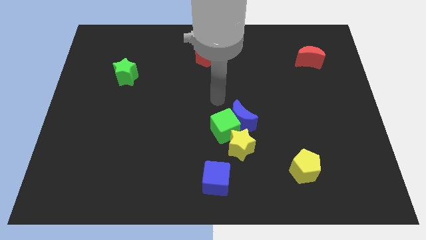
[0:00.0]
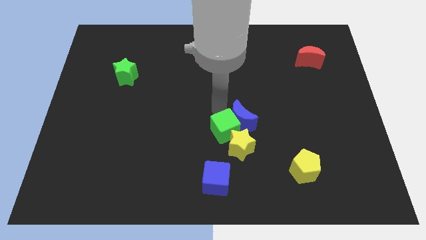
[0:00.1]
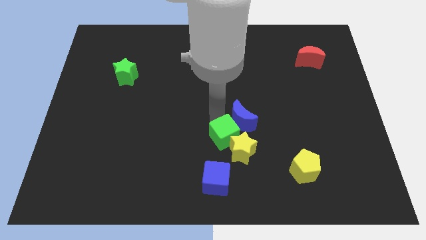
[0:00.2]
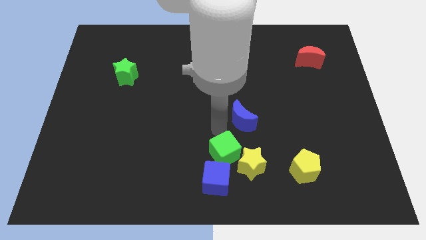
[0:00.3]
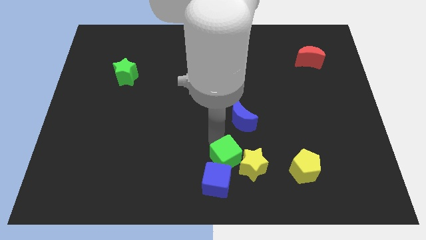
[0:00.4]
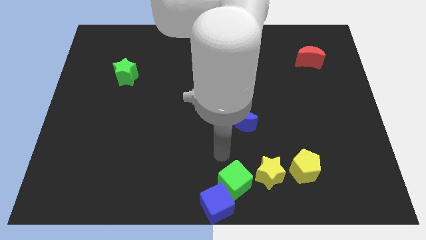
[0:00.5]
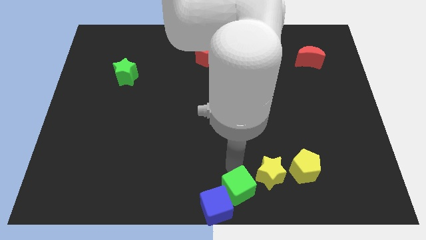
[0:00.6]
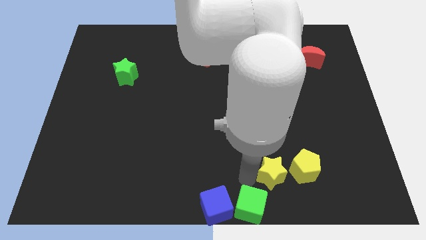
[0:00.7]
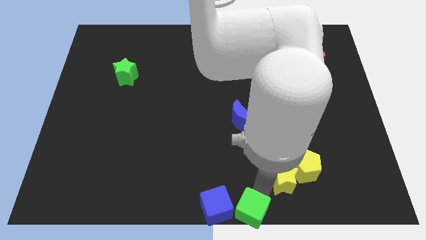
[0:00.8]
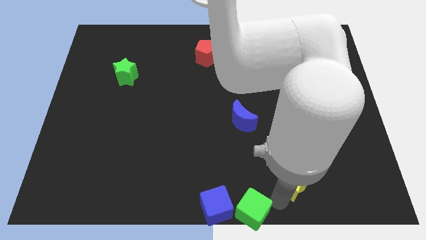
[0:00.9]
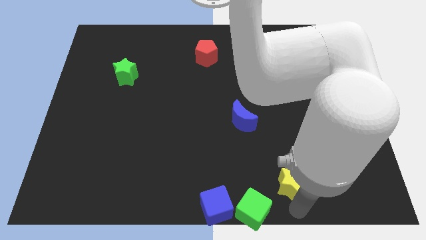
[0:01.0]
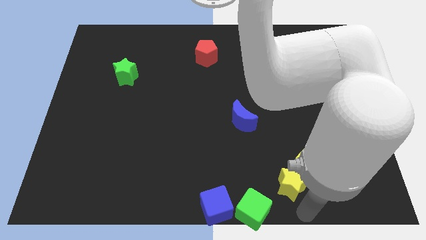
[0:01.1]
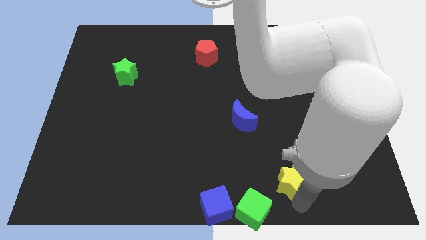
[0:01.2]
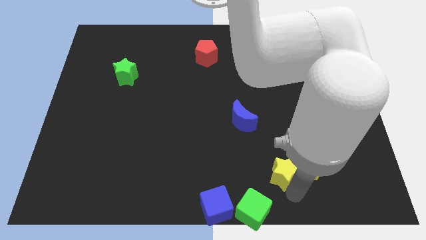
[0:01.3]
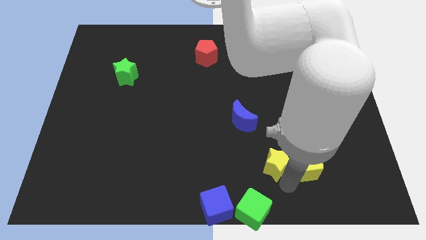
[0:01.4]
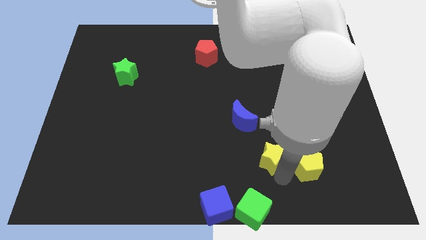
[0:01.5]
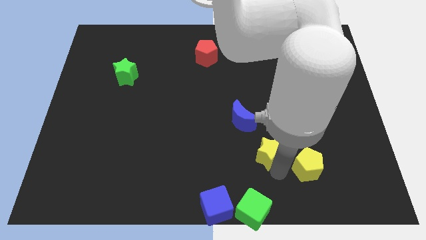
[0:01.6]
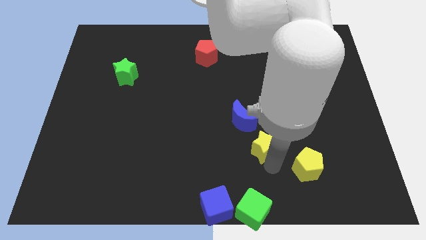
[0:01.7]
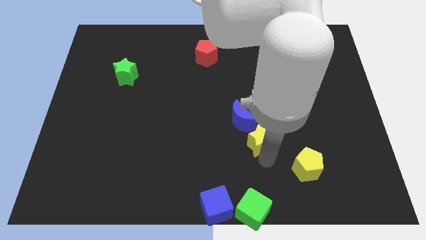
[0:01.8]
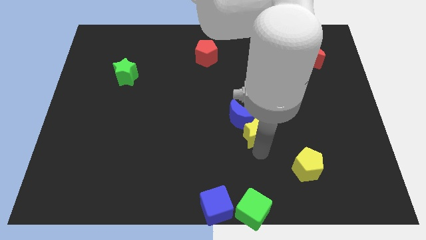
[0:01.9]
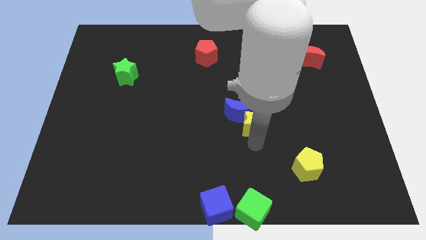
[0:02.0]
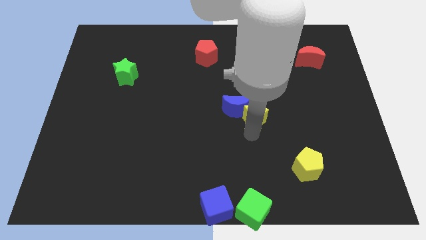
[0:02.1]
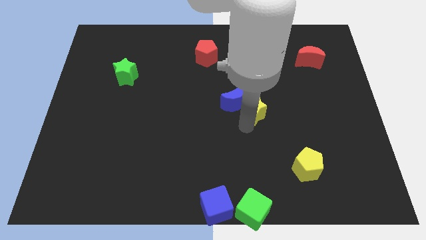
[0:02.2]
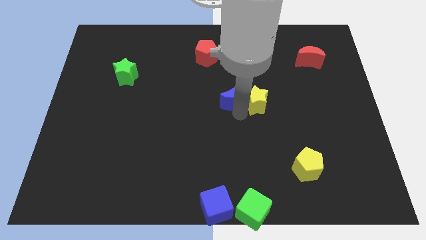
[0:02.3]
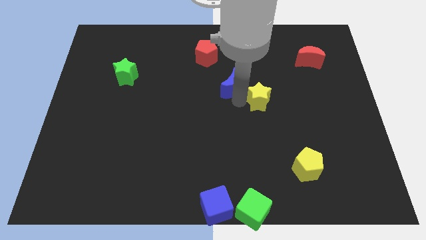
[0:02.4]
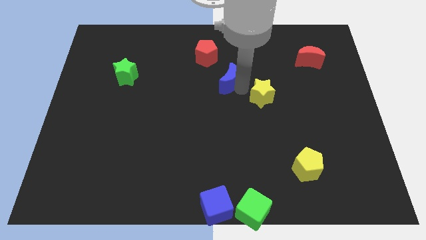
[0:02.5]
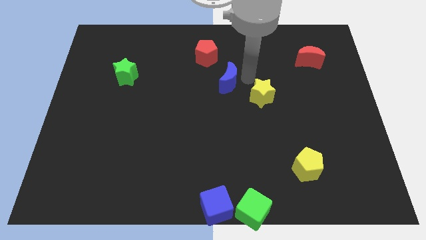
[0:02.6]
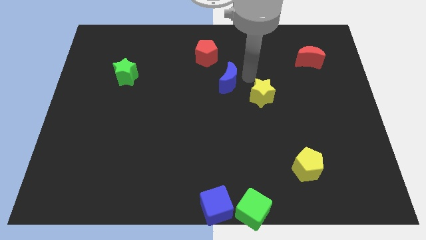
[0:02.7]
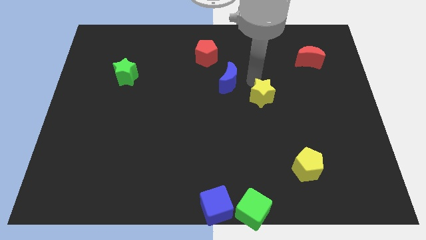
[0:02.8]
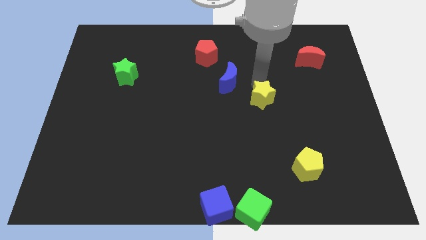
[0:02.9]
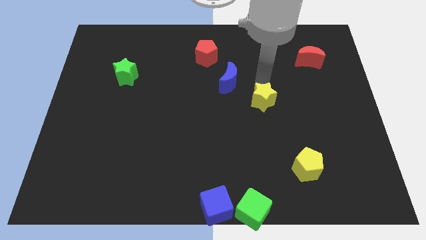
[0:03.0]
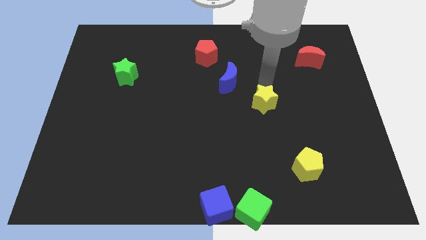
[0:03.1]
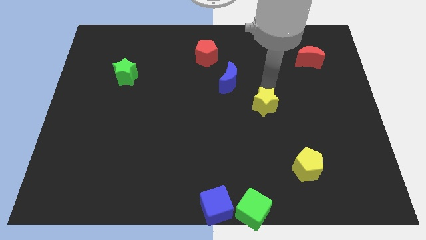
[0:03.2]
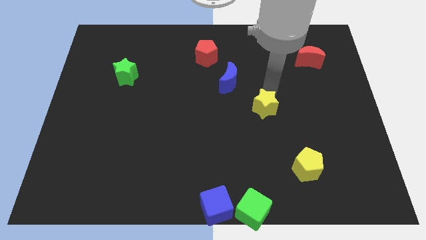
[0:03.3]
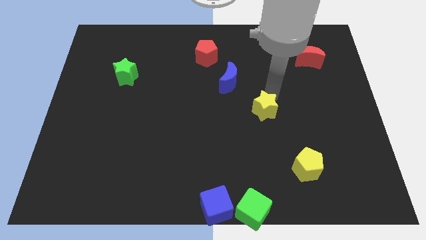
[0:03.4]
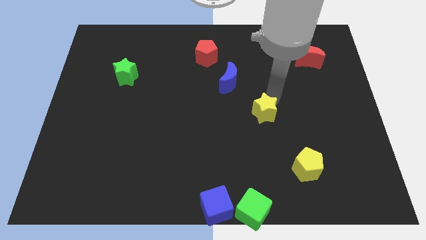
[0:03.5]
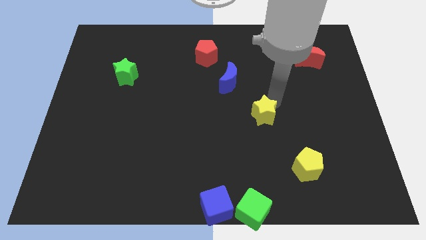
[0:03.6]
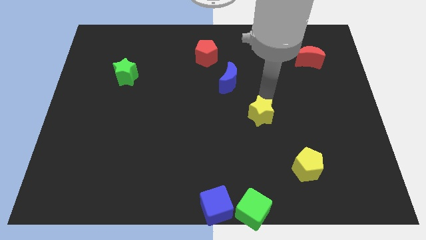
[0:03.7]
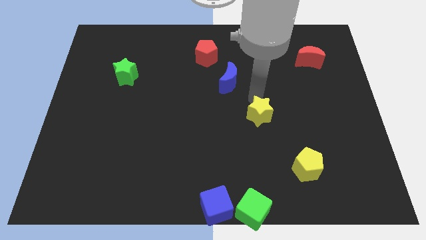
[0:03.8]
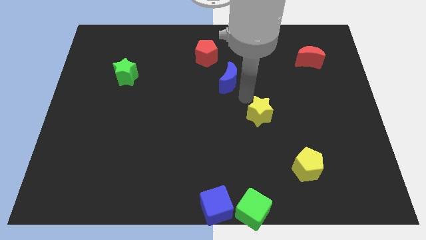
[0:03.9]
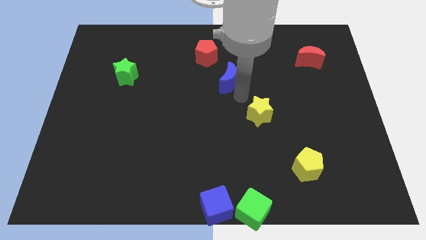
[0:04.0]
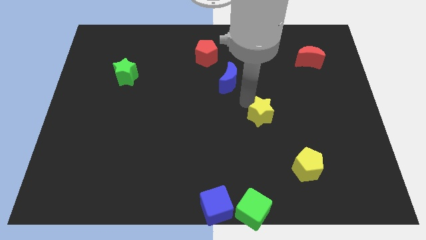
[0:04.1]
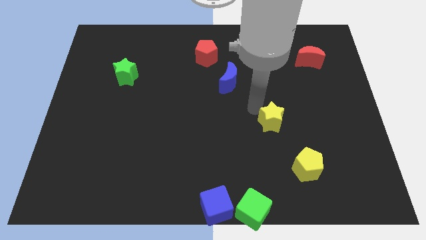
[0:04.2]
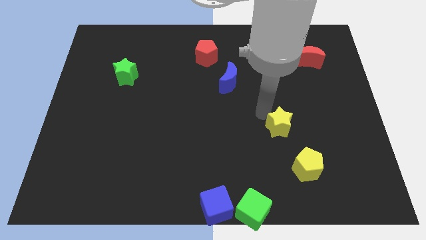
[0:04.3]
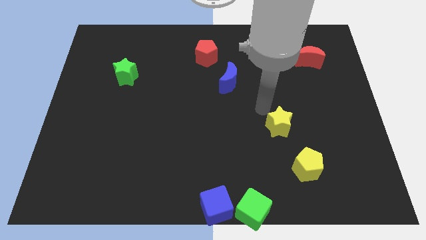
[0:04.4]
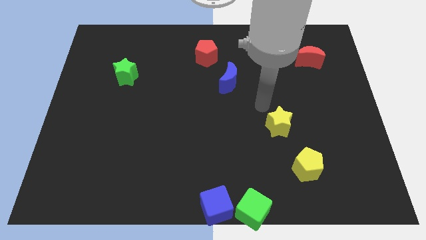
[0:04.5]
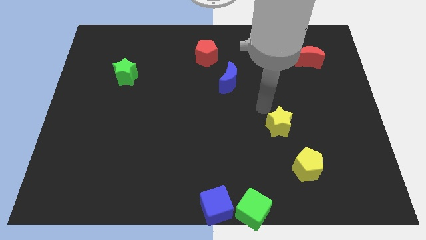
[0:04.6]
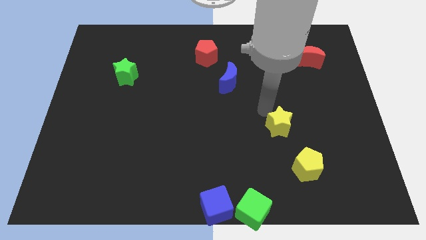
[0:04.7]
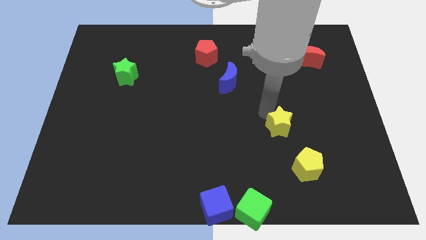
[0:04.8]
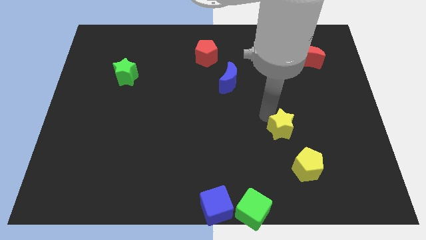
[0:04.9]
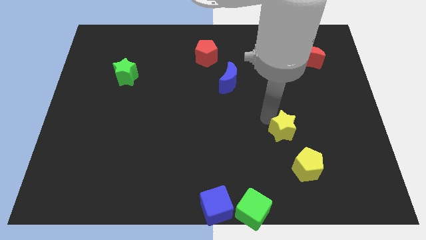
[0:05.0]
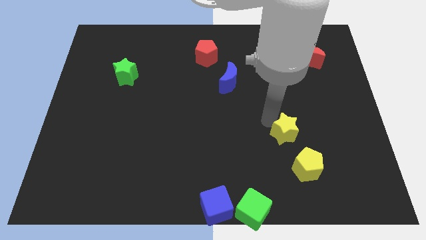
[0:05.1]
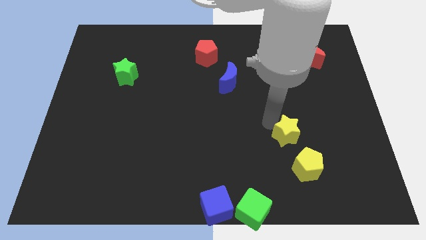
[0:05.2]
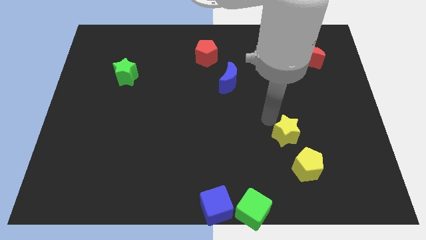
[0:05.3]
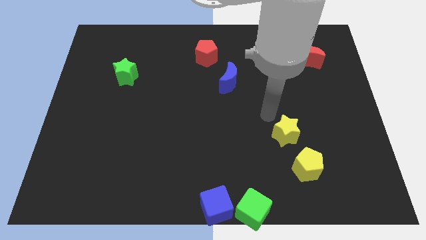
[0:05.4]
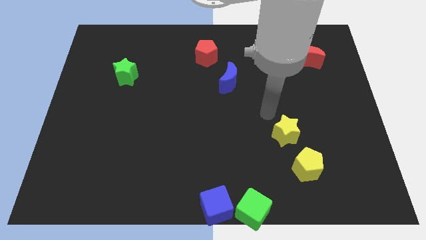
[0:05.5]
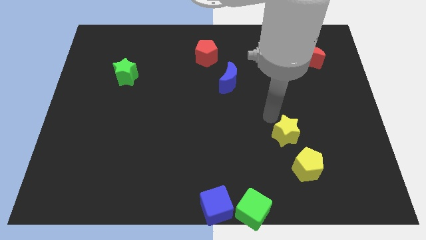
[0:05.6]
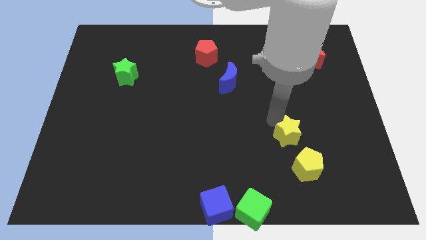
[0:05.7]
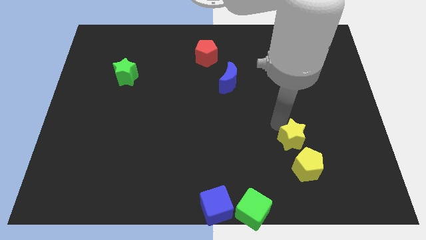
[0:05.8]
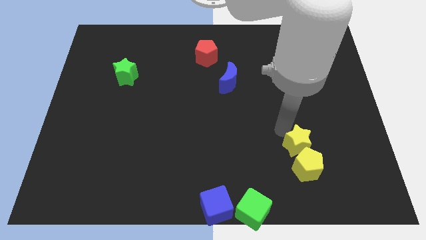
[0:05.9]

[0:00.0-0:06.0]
move the yellow star to the top right side of the yellow pentagon

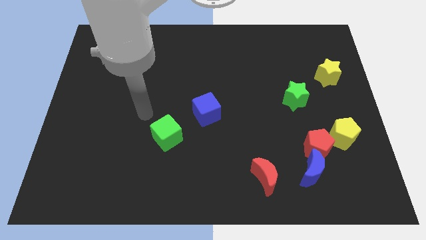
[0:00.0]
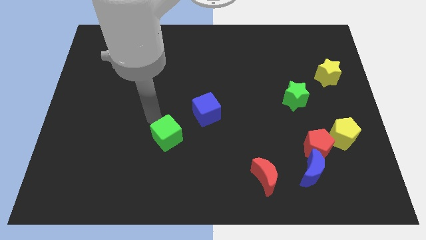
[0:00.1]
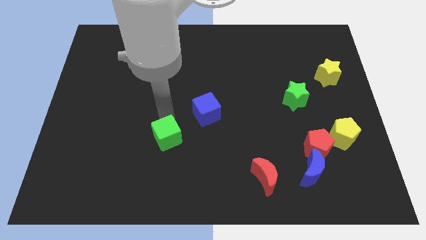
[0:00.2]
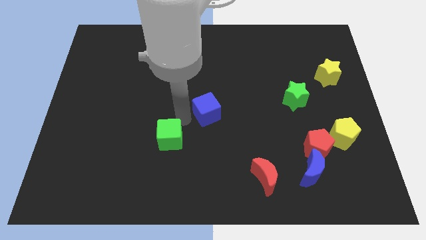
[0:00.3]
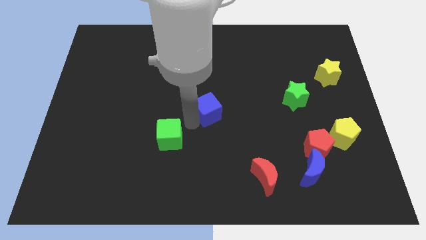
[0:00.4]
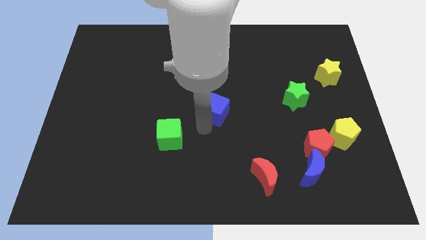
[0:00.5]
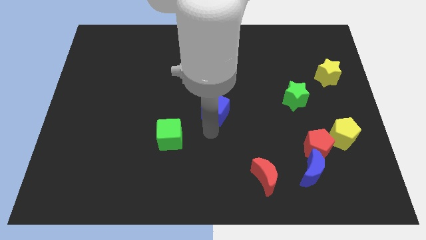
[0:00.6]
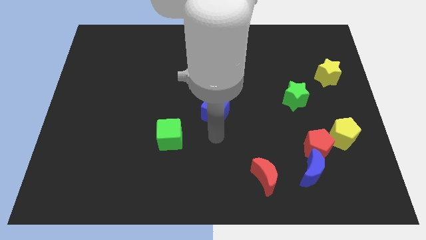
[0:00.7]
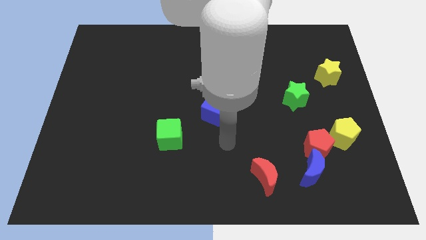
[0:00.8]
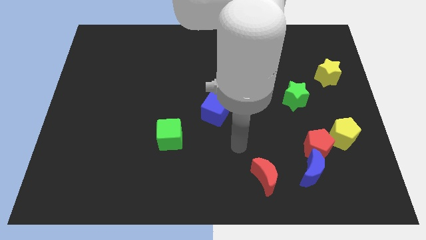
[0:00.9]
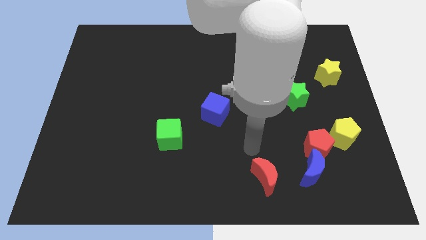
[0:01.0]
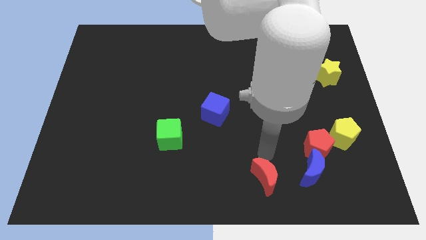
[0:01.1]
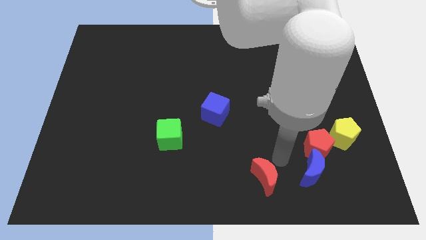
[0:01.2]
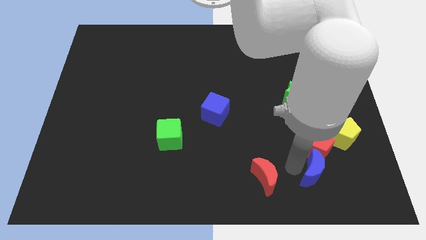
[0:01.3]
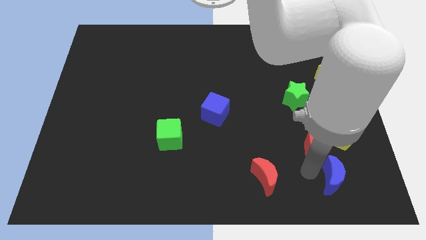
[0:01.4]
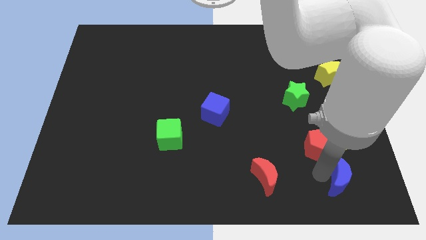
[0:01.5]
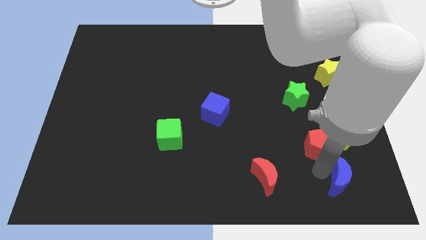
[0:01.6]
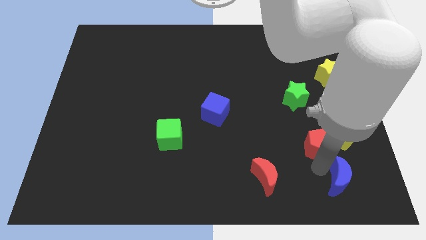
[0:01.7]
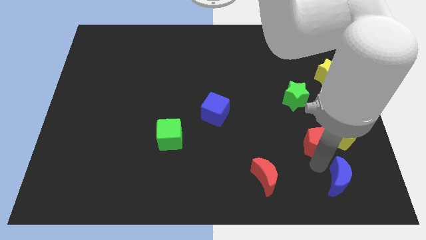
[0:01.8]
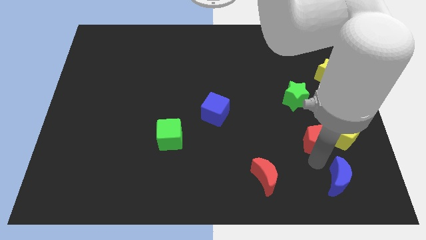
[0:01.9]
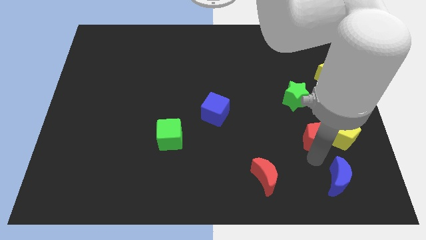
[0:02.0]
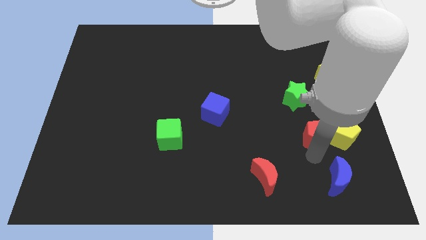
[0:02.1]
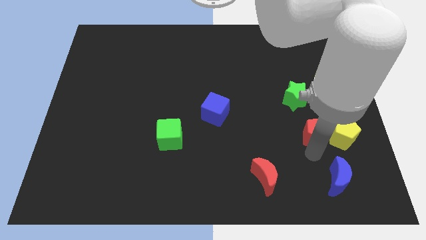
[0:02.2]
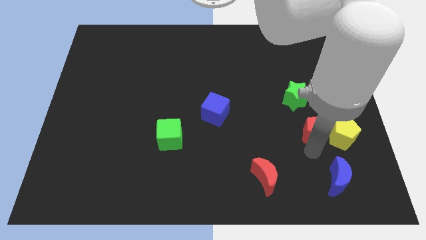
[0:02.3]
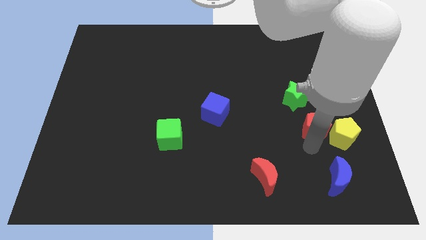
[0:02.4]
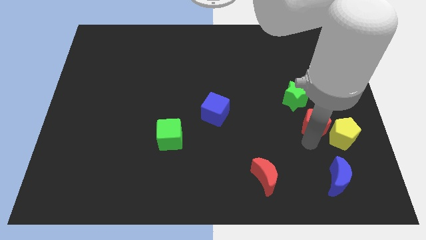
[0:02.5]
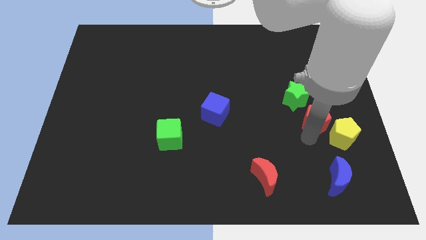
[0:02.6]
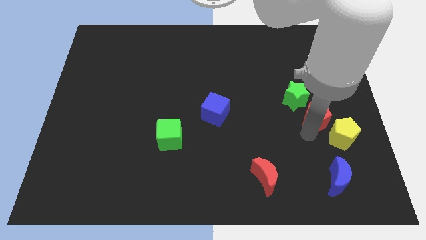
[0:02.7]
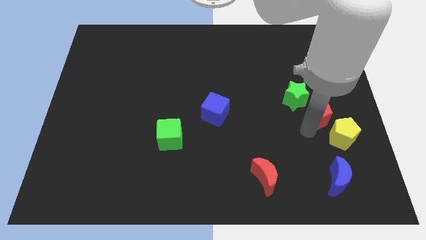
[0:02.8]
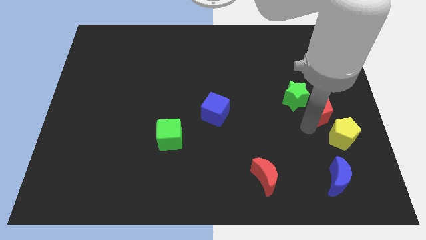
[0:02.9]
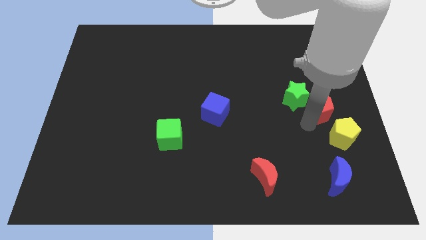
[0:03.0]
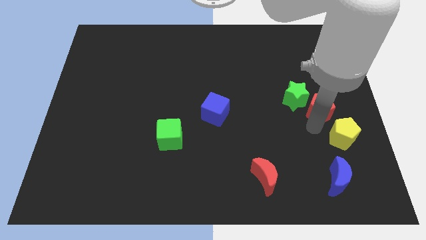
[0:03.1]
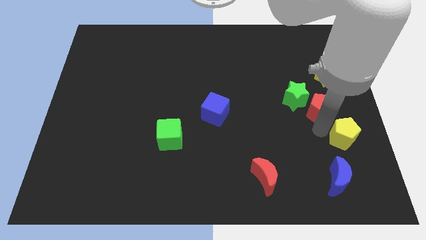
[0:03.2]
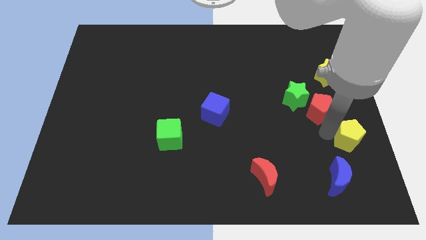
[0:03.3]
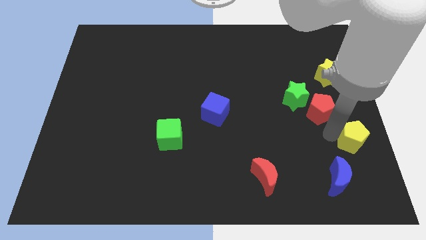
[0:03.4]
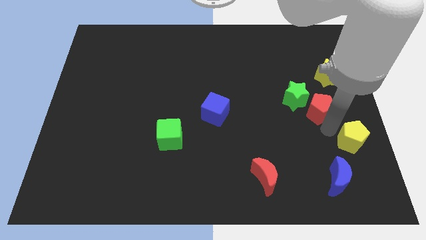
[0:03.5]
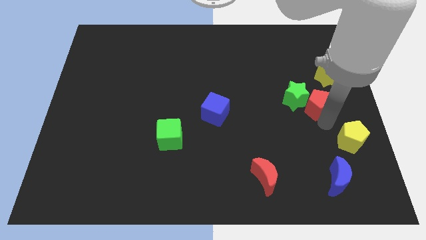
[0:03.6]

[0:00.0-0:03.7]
move the red pentagon to the bottom left side of the yellow star
